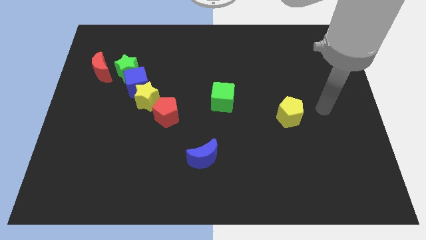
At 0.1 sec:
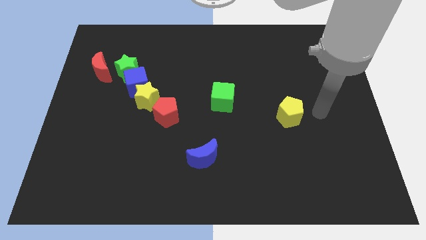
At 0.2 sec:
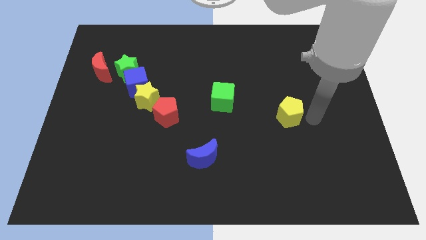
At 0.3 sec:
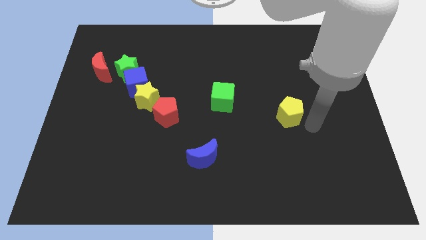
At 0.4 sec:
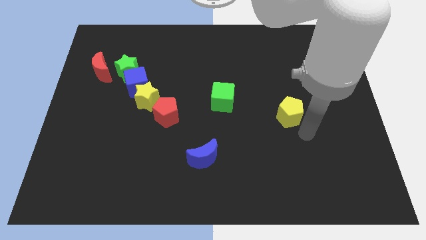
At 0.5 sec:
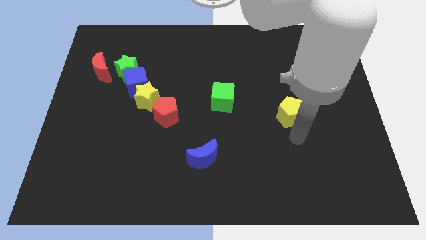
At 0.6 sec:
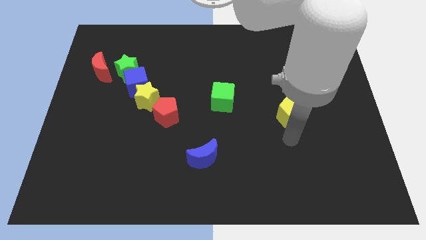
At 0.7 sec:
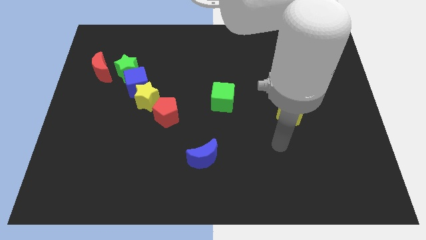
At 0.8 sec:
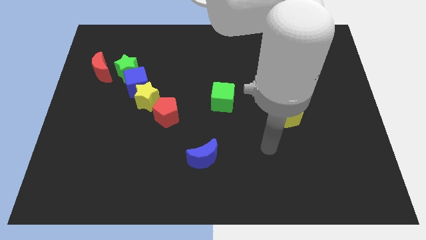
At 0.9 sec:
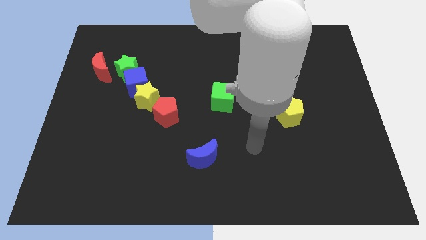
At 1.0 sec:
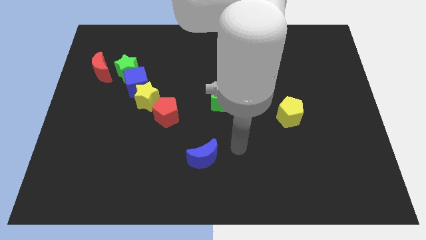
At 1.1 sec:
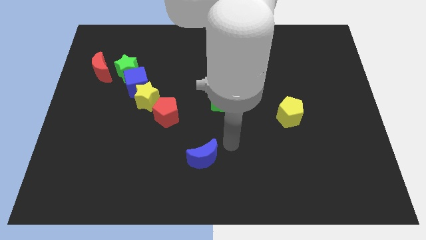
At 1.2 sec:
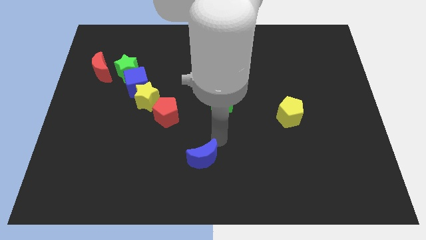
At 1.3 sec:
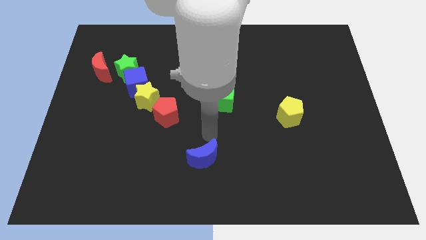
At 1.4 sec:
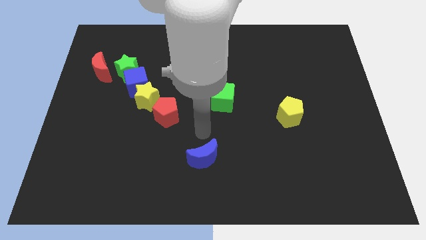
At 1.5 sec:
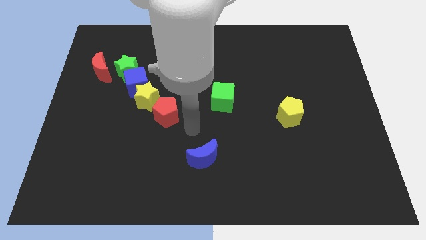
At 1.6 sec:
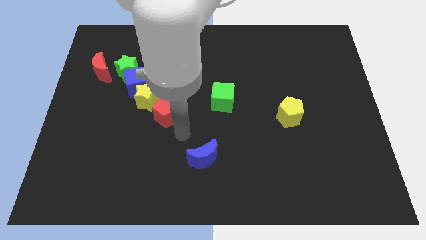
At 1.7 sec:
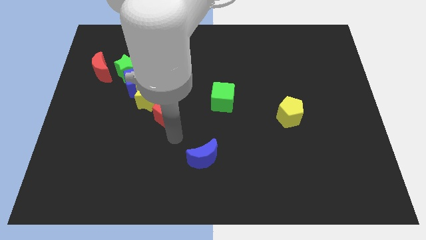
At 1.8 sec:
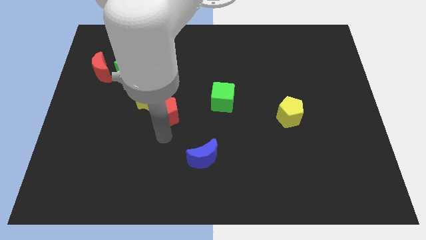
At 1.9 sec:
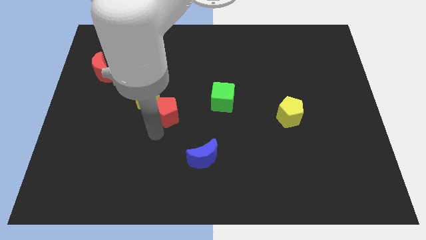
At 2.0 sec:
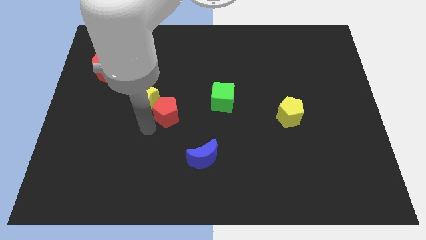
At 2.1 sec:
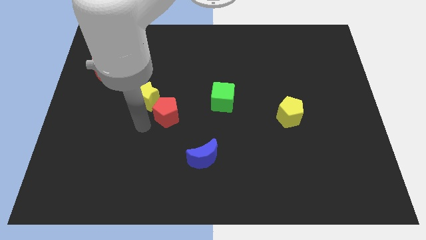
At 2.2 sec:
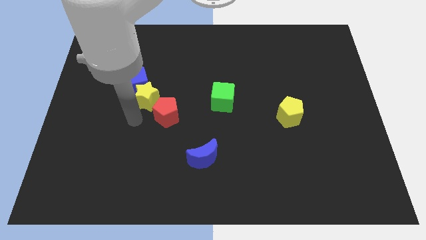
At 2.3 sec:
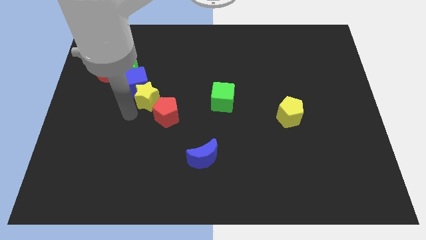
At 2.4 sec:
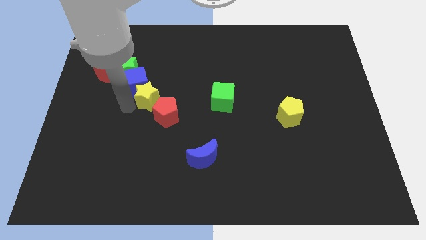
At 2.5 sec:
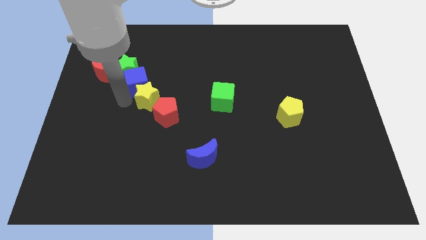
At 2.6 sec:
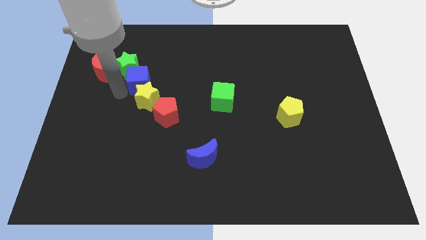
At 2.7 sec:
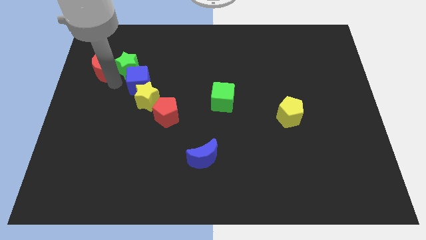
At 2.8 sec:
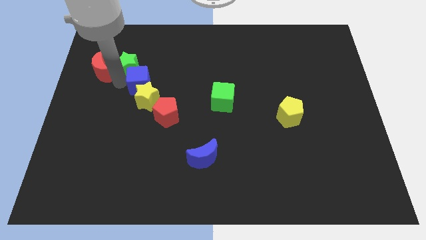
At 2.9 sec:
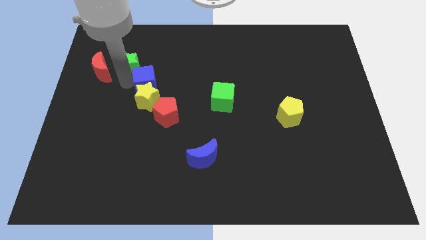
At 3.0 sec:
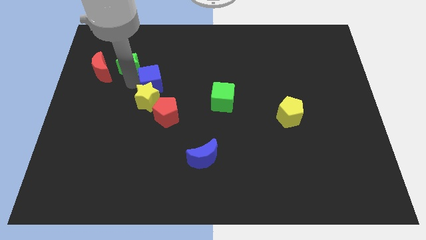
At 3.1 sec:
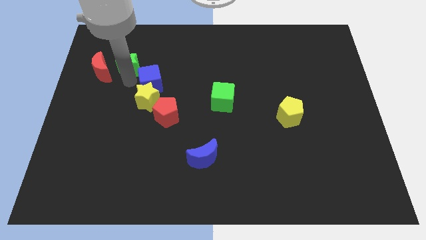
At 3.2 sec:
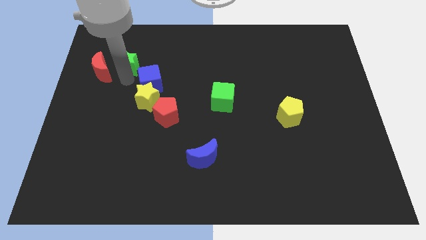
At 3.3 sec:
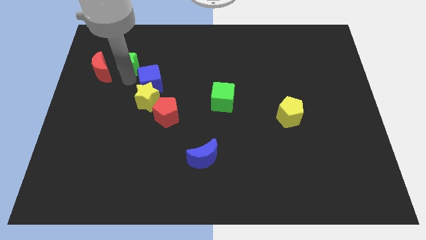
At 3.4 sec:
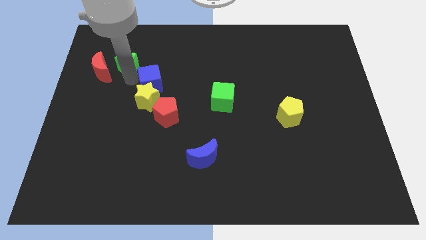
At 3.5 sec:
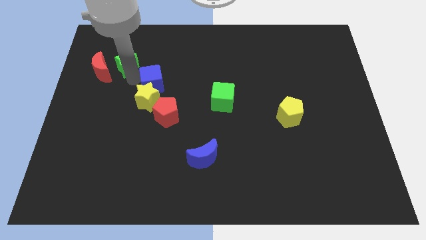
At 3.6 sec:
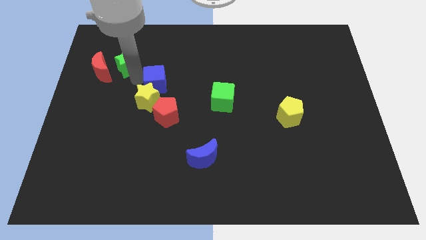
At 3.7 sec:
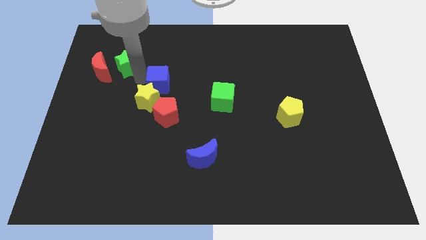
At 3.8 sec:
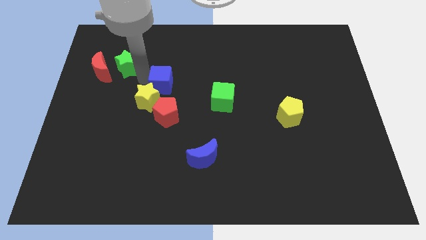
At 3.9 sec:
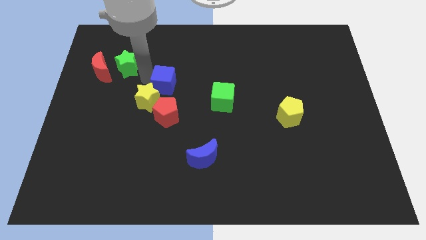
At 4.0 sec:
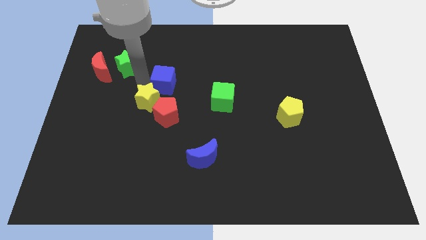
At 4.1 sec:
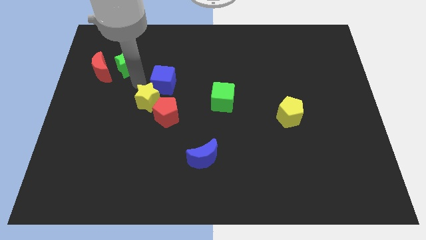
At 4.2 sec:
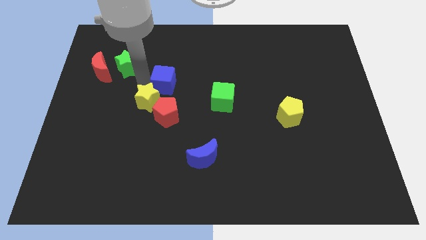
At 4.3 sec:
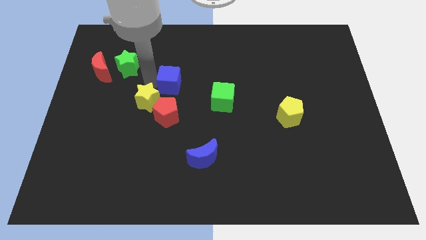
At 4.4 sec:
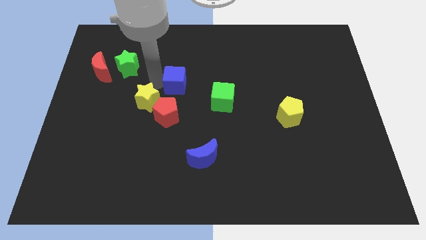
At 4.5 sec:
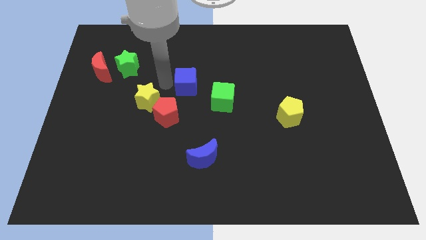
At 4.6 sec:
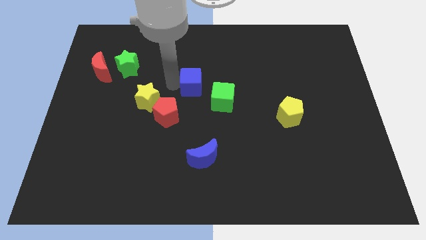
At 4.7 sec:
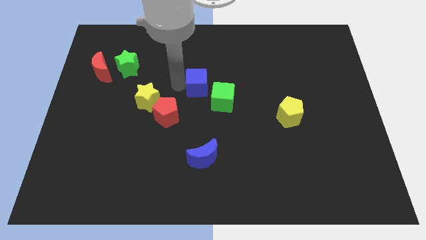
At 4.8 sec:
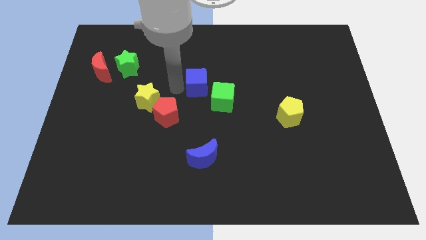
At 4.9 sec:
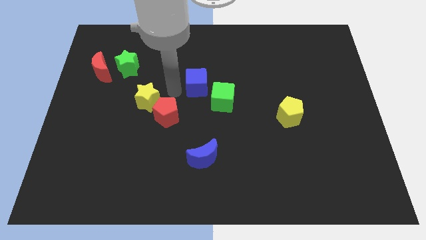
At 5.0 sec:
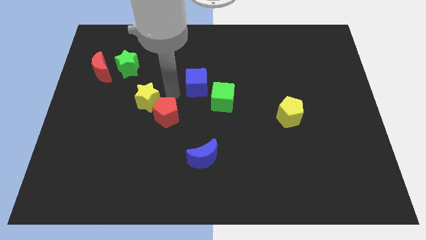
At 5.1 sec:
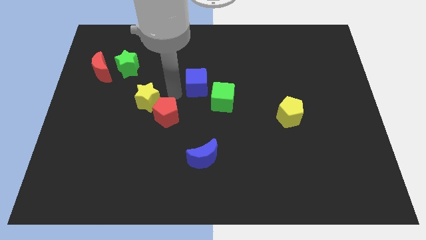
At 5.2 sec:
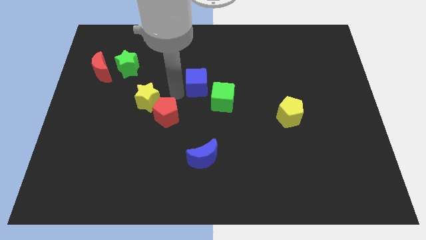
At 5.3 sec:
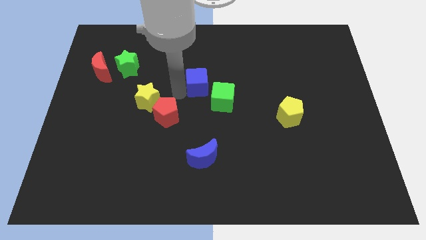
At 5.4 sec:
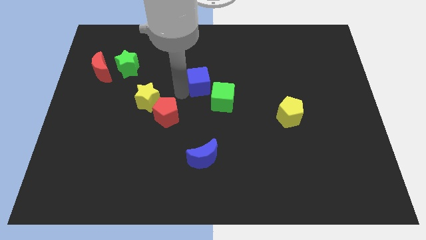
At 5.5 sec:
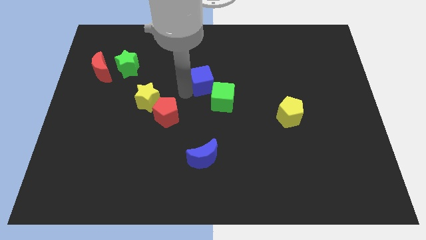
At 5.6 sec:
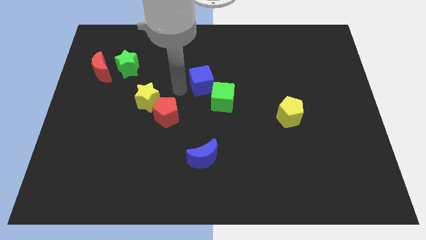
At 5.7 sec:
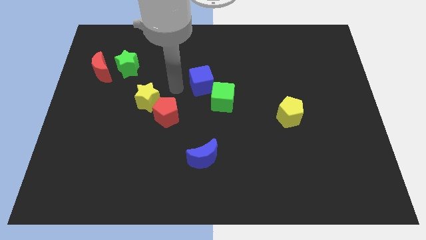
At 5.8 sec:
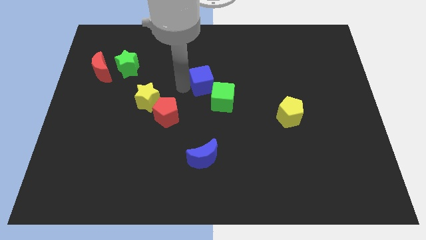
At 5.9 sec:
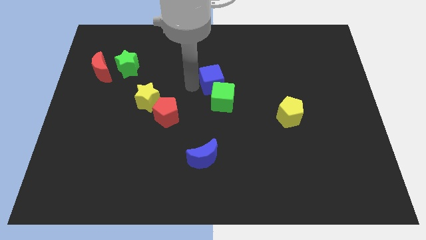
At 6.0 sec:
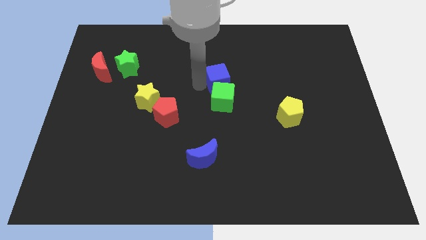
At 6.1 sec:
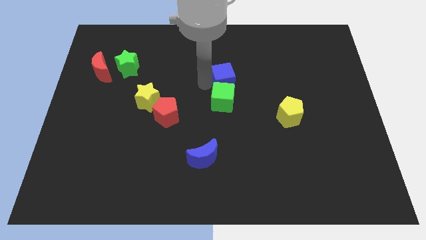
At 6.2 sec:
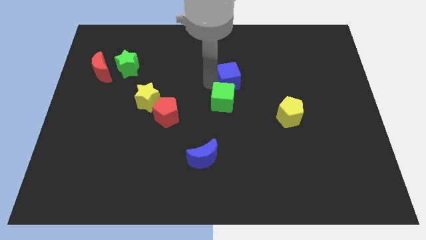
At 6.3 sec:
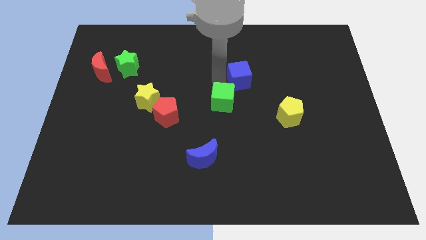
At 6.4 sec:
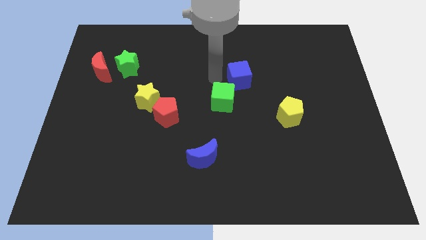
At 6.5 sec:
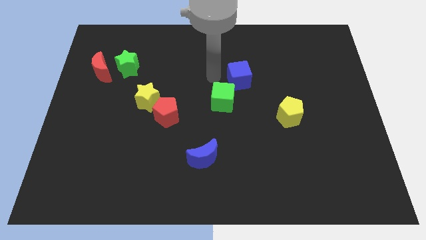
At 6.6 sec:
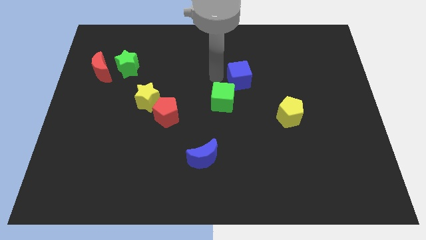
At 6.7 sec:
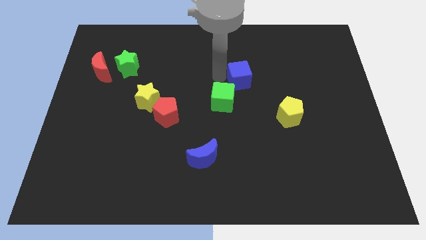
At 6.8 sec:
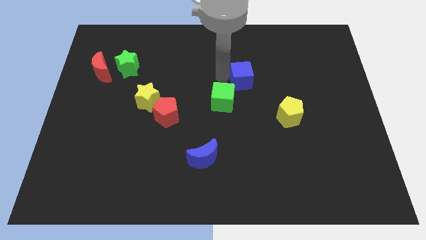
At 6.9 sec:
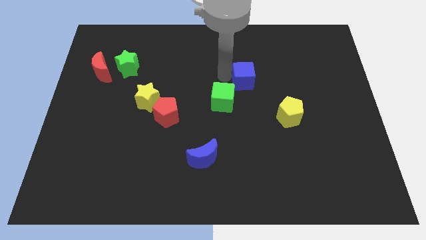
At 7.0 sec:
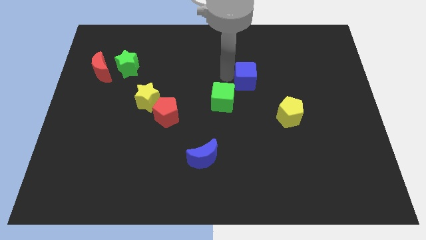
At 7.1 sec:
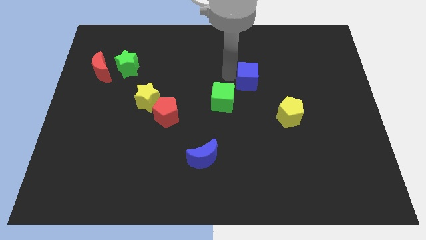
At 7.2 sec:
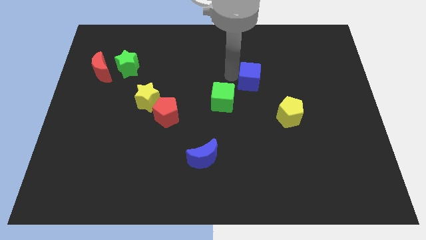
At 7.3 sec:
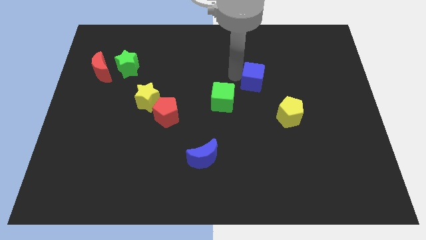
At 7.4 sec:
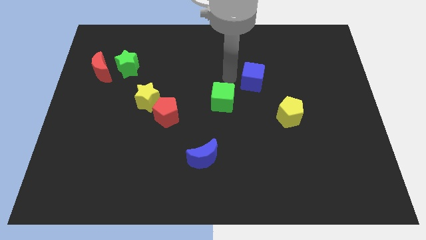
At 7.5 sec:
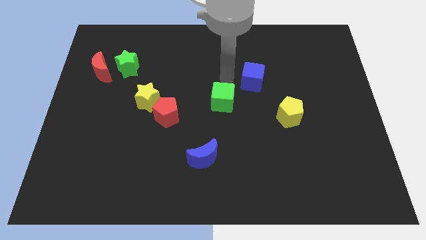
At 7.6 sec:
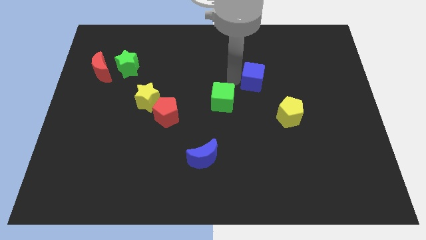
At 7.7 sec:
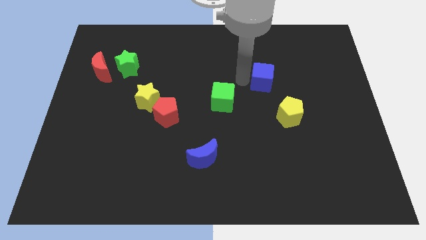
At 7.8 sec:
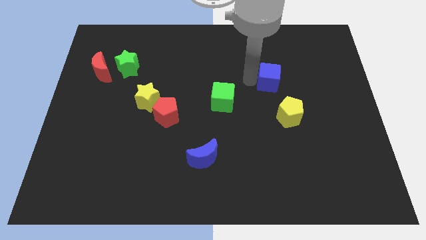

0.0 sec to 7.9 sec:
push the blue cube above the yellow pentagon
